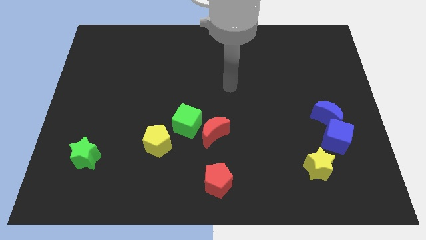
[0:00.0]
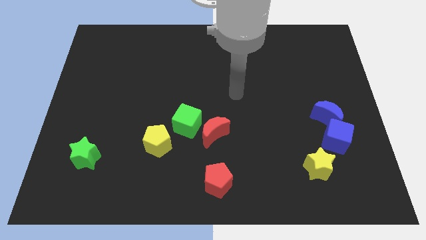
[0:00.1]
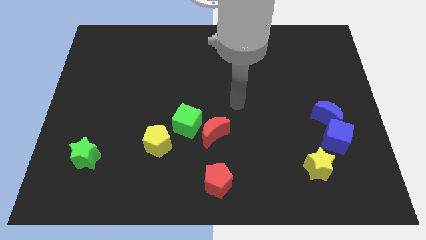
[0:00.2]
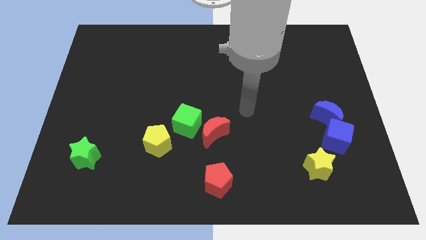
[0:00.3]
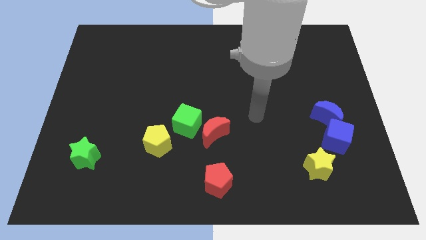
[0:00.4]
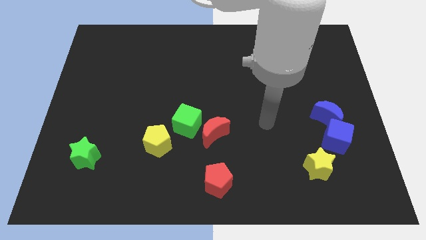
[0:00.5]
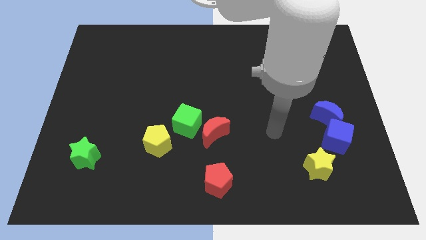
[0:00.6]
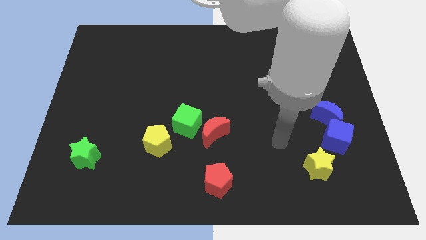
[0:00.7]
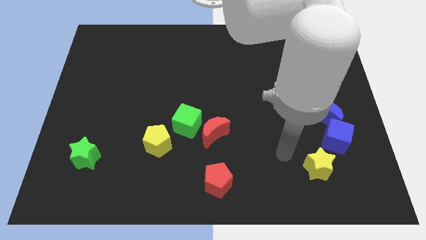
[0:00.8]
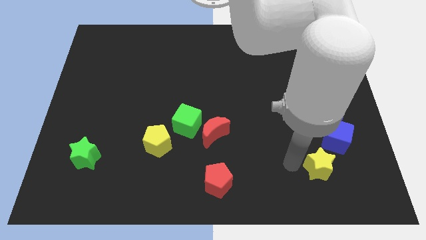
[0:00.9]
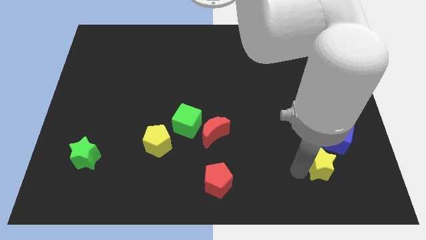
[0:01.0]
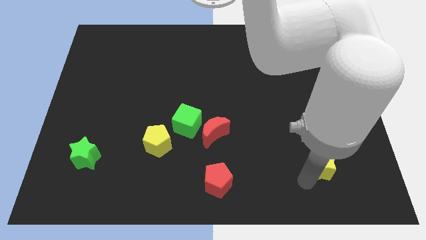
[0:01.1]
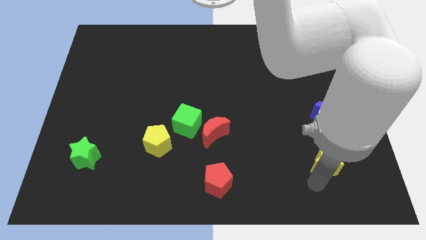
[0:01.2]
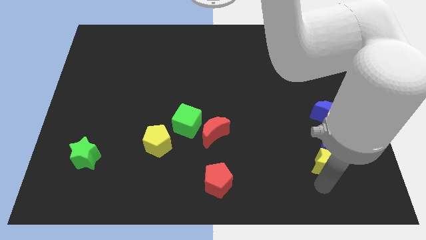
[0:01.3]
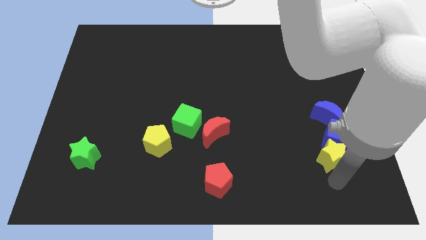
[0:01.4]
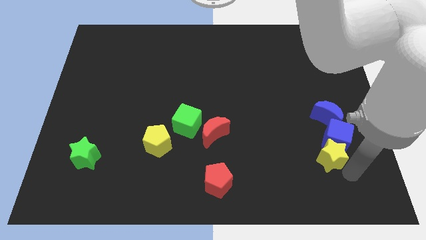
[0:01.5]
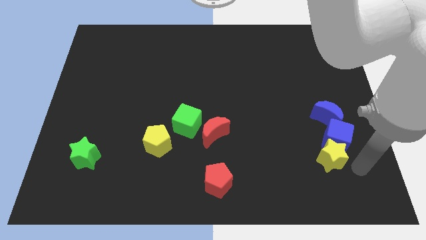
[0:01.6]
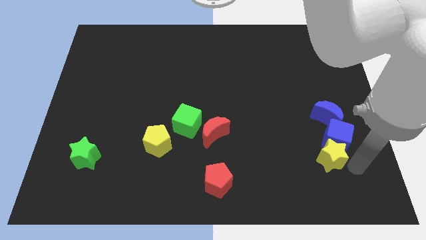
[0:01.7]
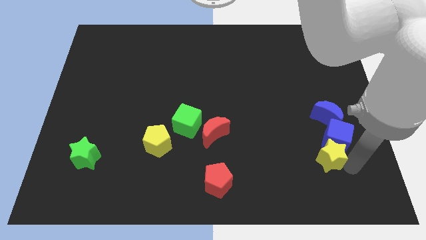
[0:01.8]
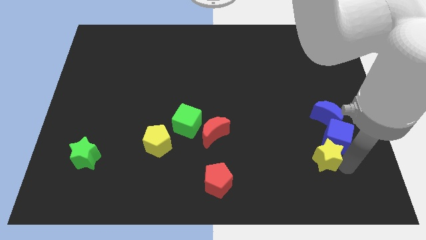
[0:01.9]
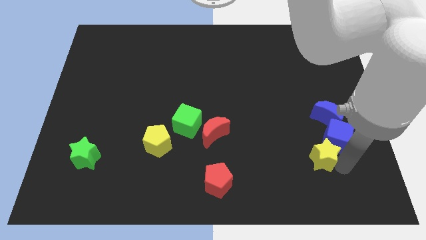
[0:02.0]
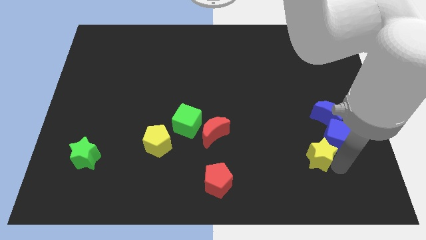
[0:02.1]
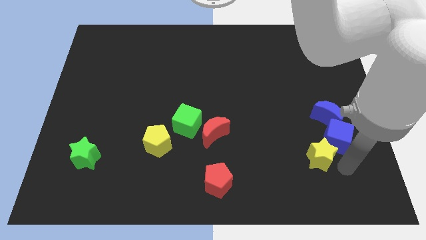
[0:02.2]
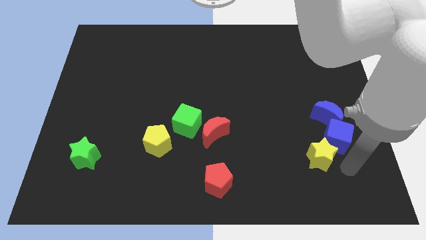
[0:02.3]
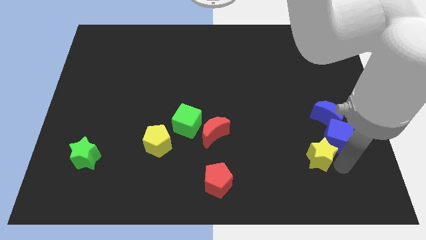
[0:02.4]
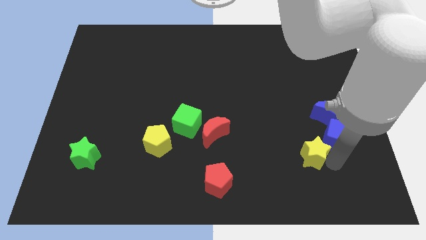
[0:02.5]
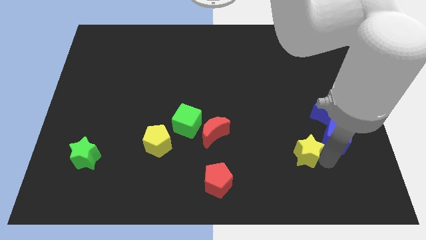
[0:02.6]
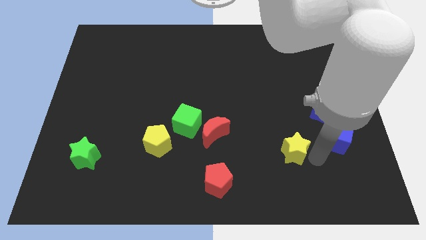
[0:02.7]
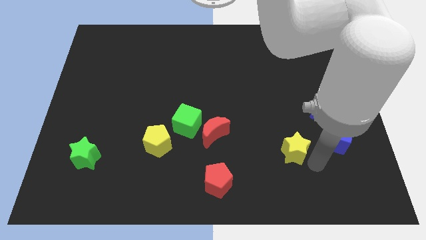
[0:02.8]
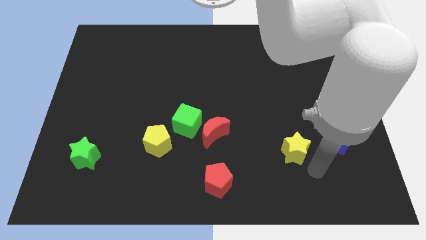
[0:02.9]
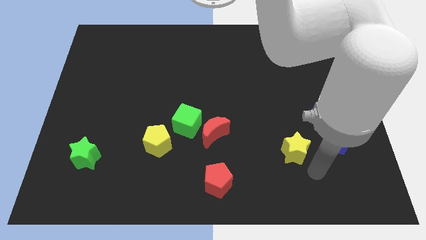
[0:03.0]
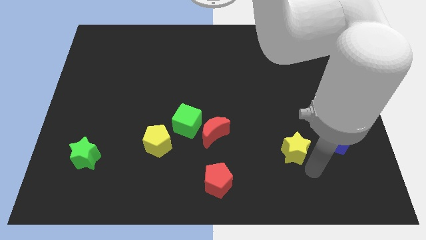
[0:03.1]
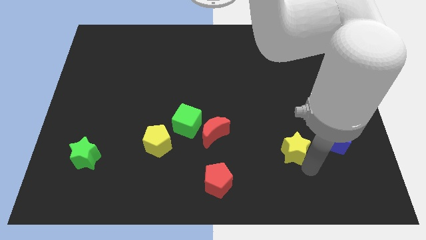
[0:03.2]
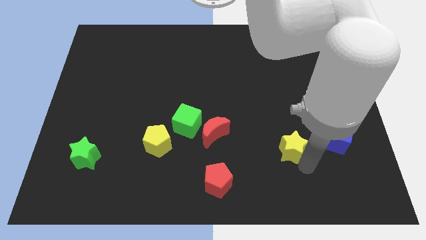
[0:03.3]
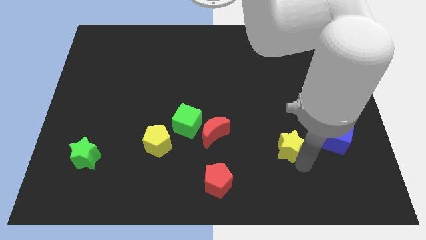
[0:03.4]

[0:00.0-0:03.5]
move the yellow star slightly diagonally up and to the left

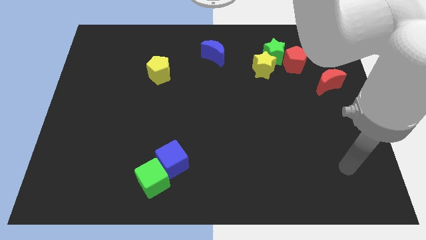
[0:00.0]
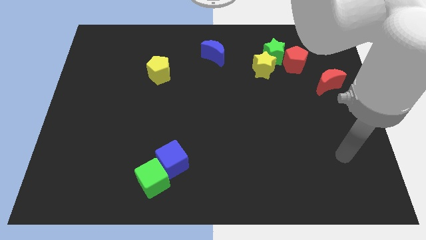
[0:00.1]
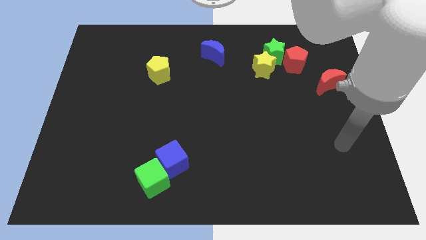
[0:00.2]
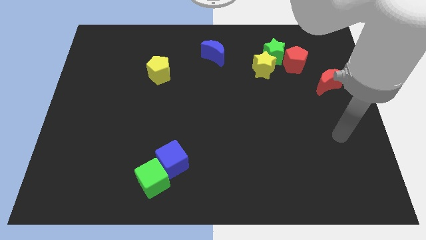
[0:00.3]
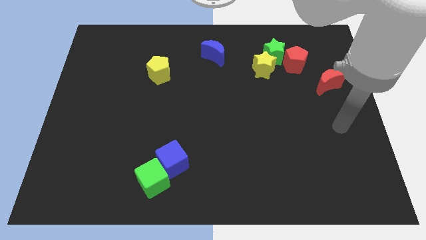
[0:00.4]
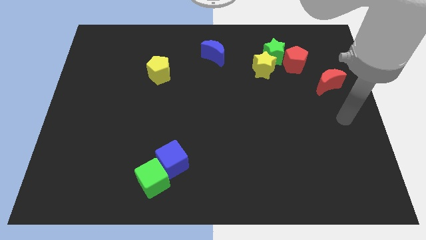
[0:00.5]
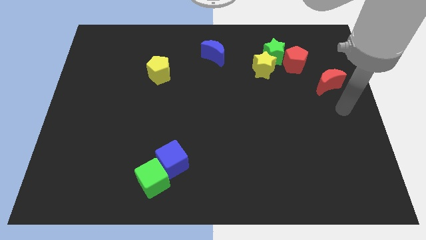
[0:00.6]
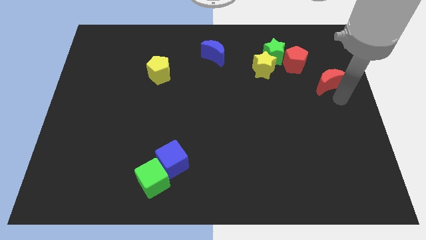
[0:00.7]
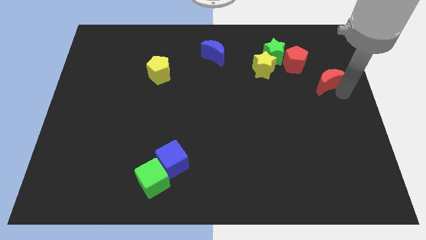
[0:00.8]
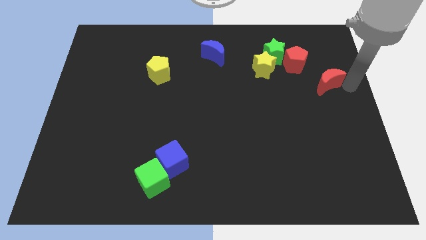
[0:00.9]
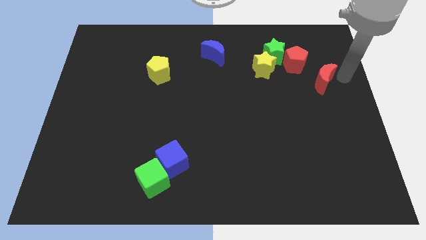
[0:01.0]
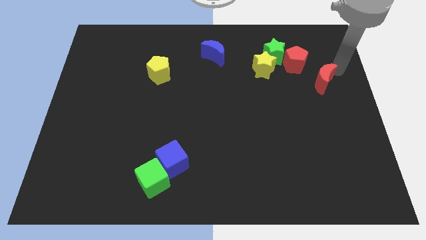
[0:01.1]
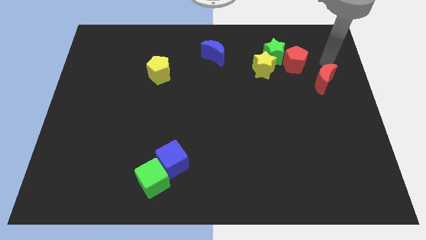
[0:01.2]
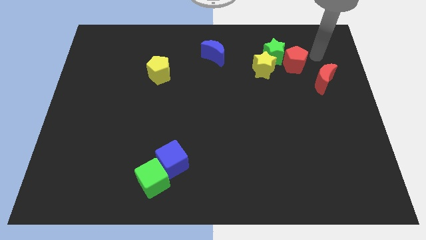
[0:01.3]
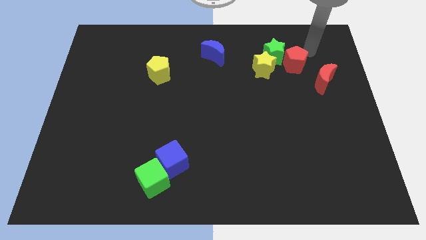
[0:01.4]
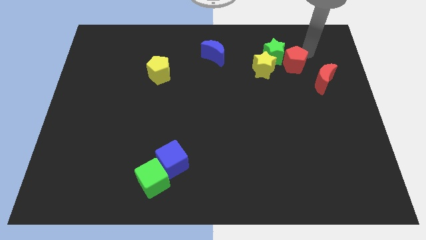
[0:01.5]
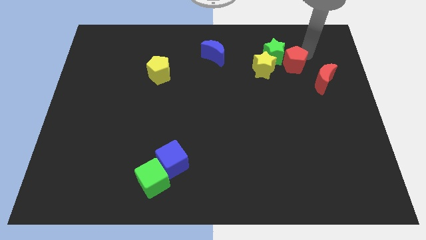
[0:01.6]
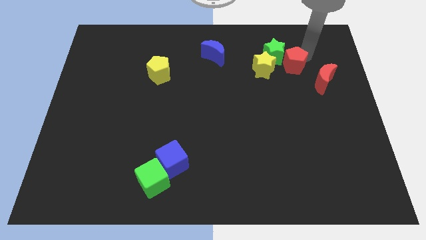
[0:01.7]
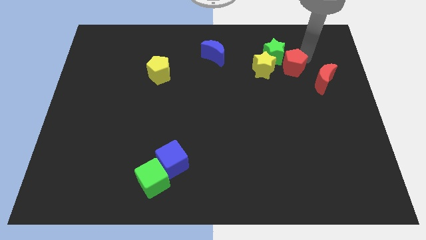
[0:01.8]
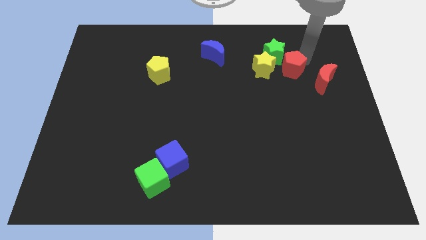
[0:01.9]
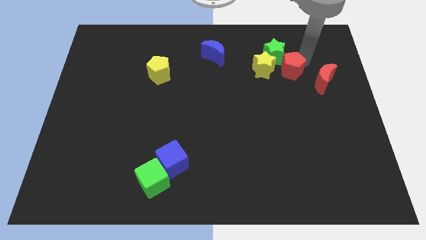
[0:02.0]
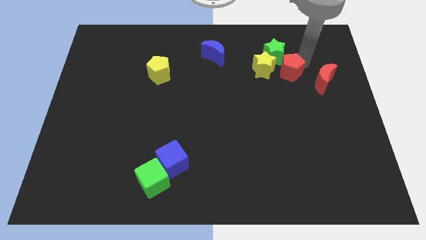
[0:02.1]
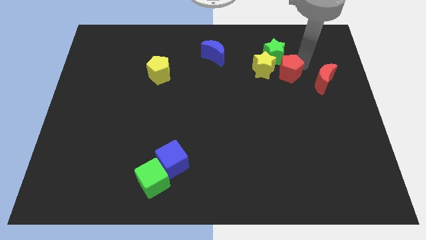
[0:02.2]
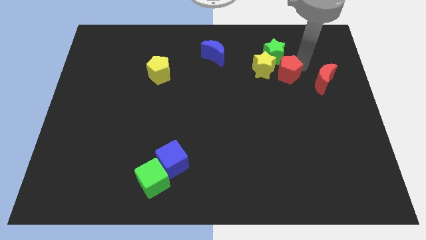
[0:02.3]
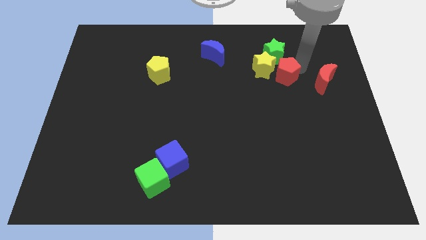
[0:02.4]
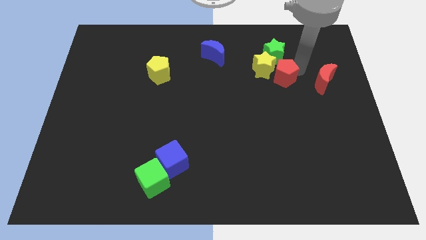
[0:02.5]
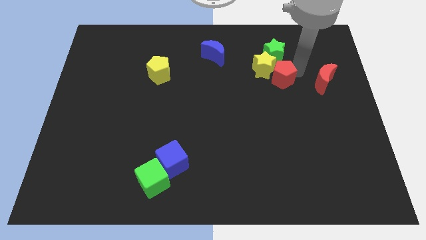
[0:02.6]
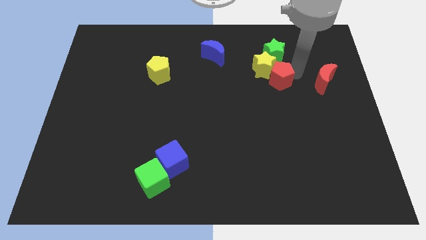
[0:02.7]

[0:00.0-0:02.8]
move the red pentagon slightly downwards and left diagonally

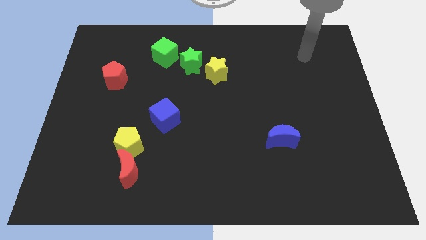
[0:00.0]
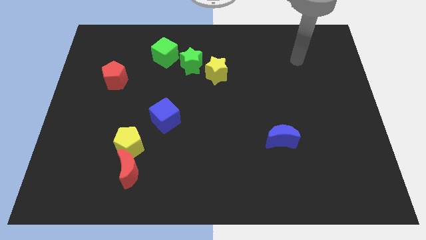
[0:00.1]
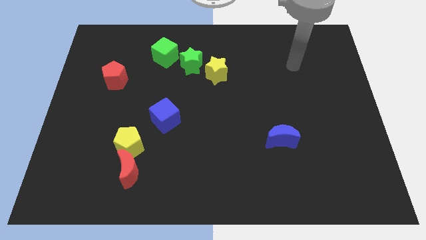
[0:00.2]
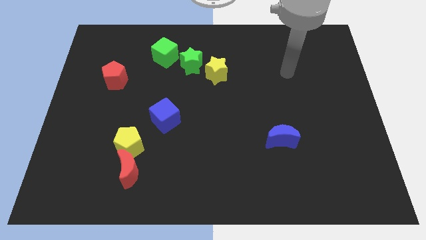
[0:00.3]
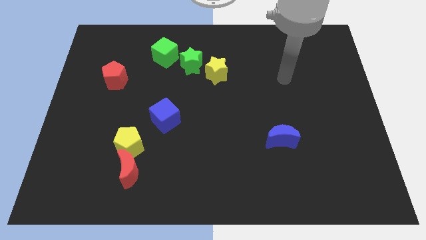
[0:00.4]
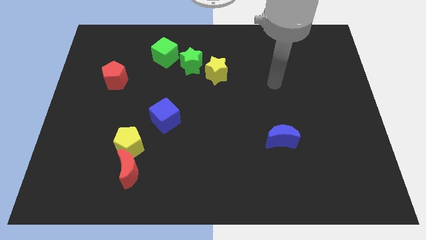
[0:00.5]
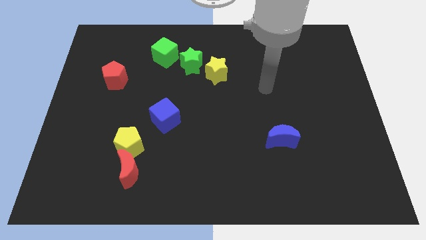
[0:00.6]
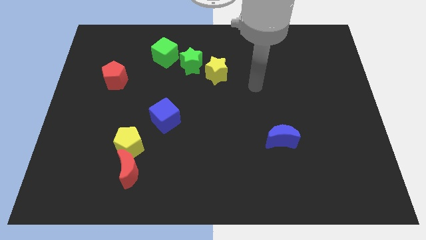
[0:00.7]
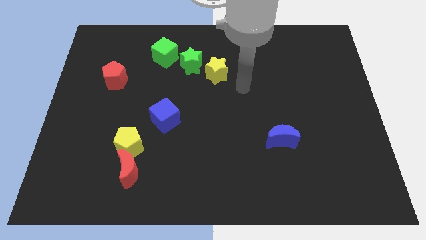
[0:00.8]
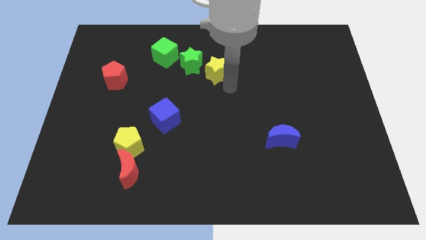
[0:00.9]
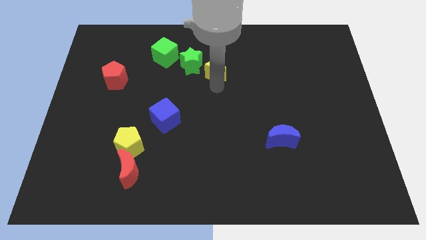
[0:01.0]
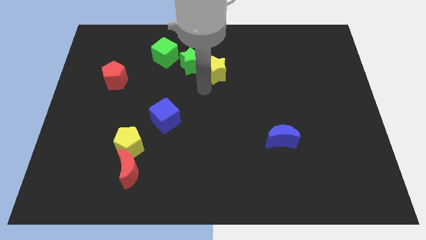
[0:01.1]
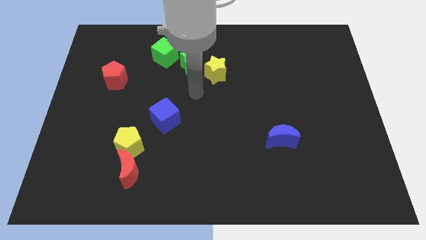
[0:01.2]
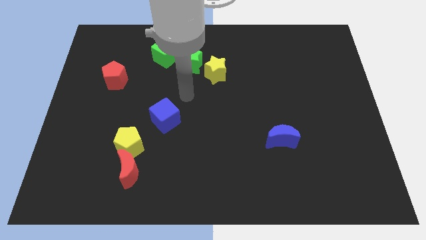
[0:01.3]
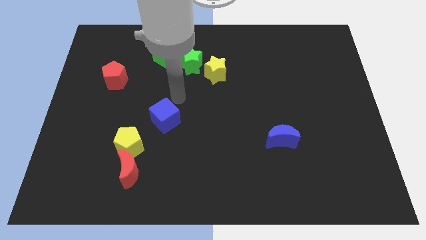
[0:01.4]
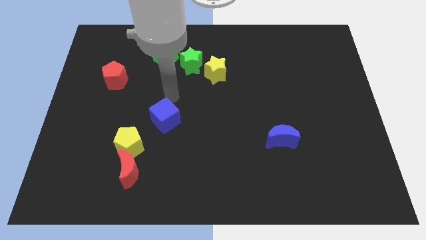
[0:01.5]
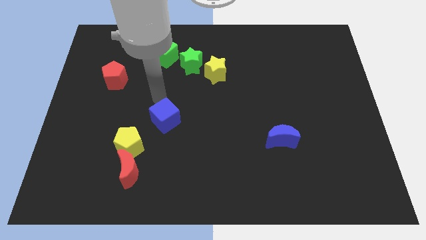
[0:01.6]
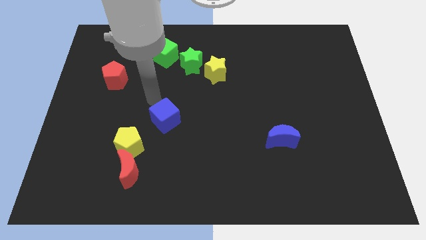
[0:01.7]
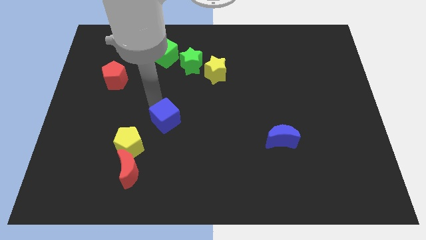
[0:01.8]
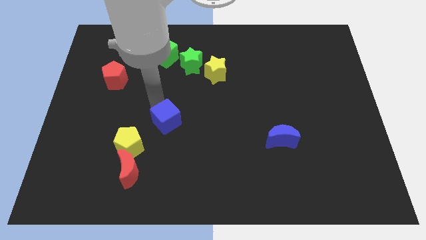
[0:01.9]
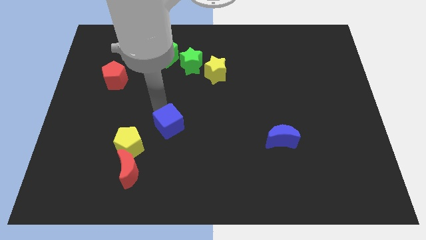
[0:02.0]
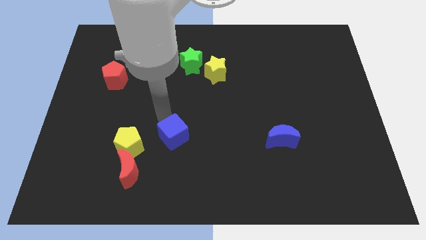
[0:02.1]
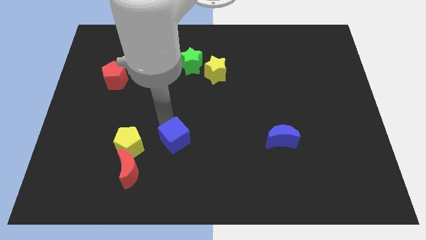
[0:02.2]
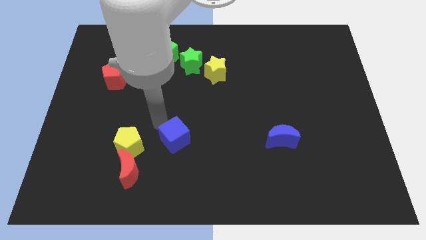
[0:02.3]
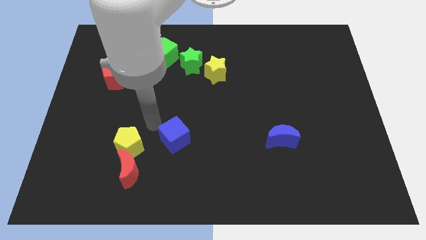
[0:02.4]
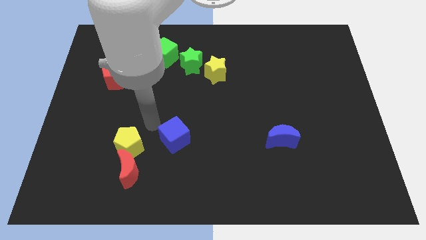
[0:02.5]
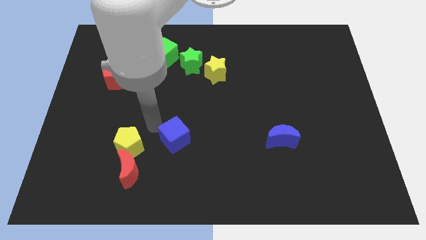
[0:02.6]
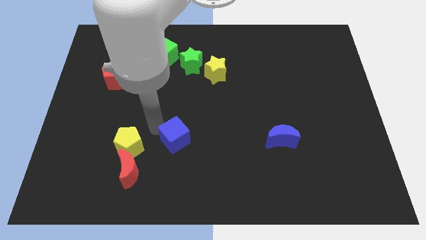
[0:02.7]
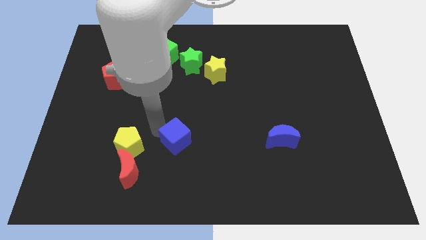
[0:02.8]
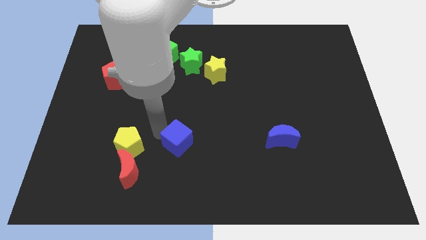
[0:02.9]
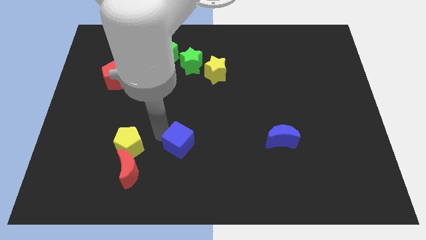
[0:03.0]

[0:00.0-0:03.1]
push the blue cube down and right diagonally a little
